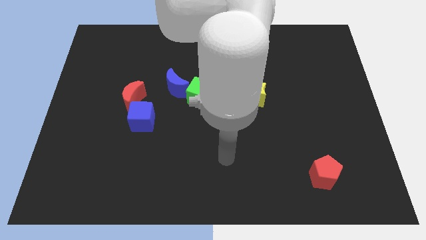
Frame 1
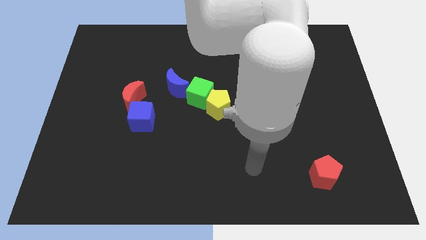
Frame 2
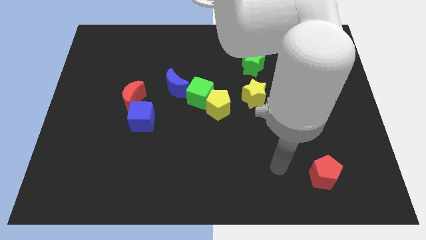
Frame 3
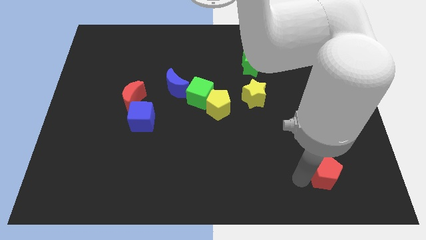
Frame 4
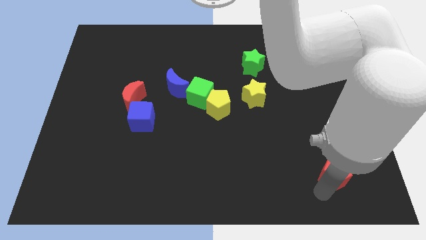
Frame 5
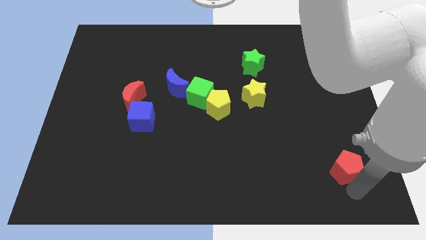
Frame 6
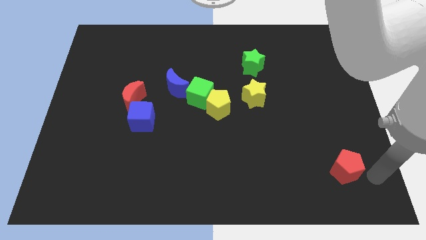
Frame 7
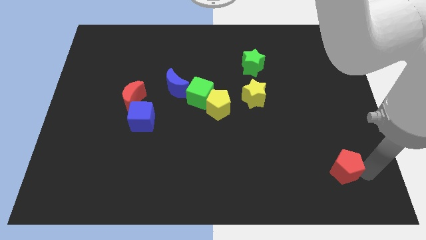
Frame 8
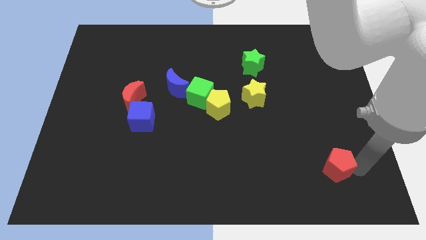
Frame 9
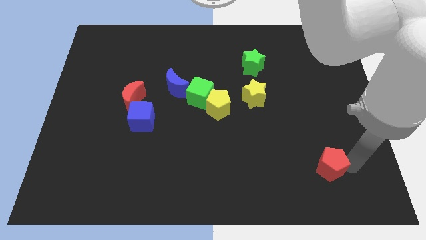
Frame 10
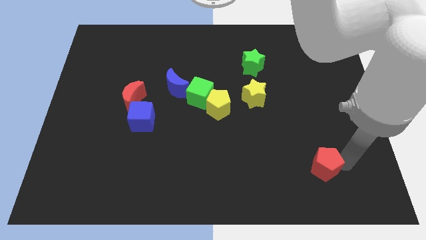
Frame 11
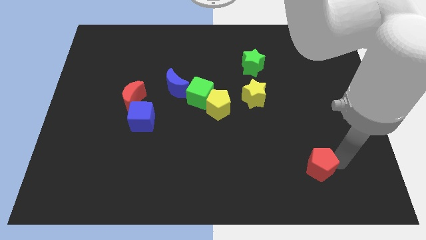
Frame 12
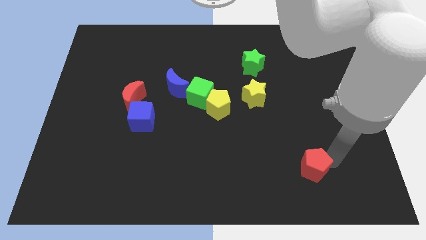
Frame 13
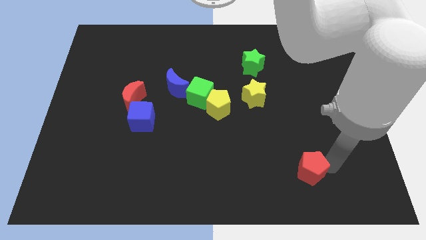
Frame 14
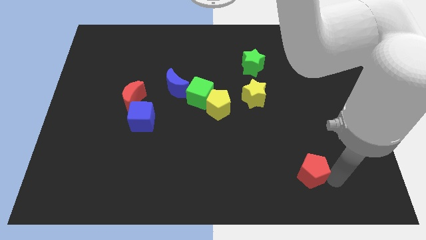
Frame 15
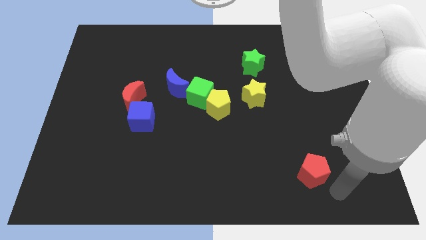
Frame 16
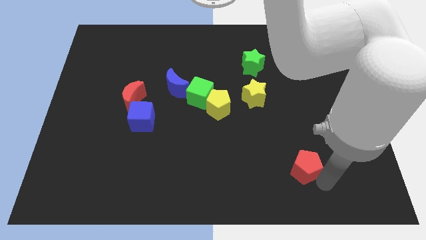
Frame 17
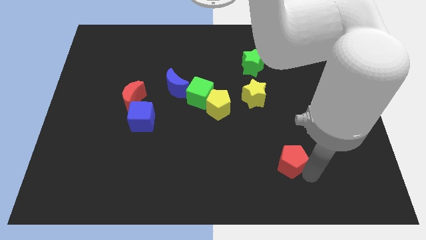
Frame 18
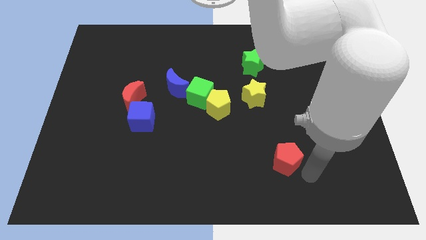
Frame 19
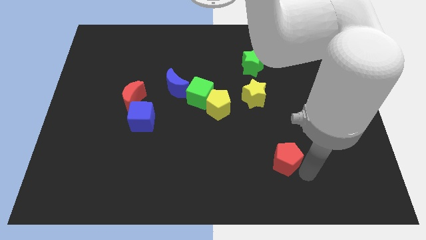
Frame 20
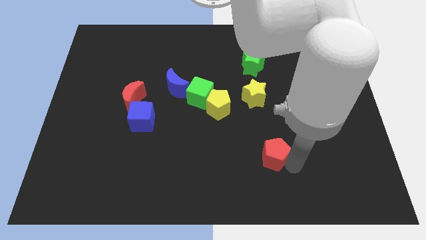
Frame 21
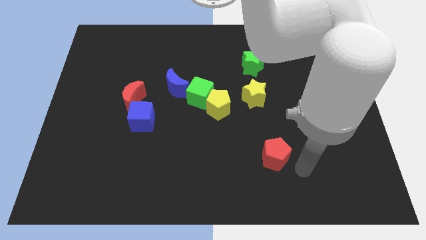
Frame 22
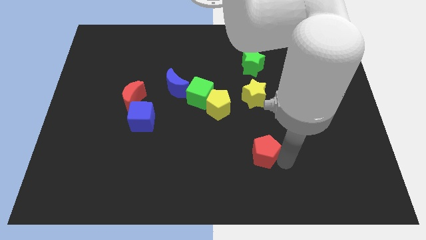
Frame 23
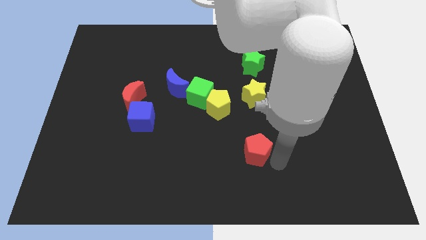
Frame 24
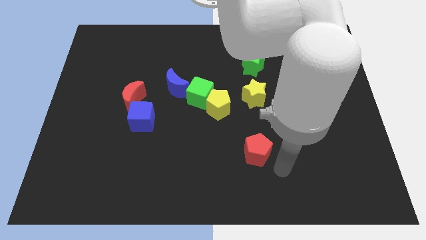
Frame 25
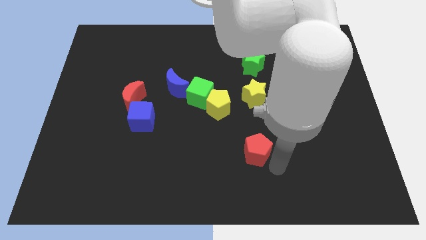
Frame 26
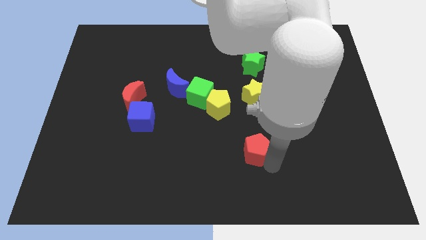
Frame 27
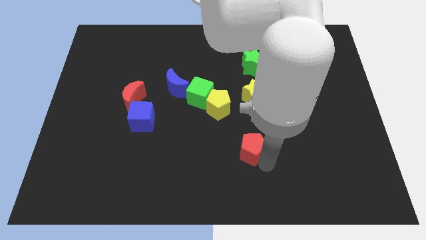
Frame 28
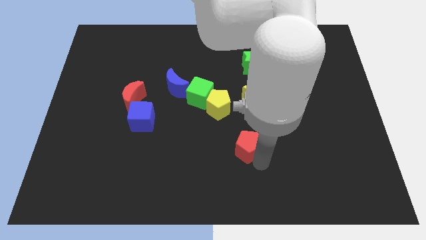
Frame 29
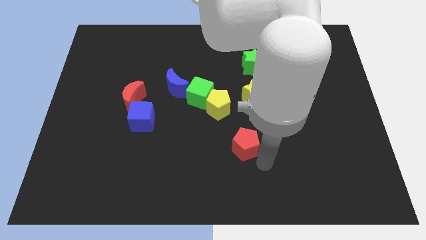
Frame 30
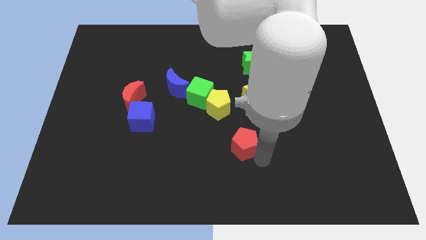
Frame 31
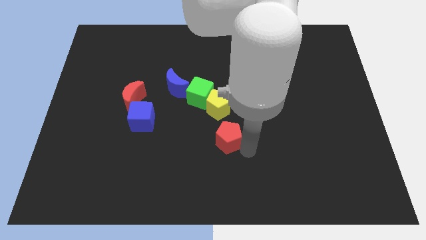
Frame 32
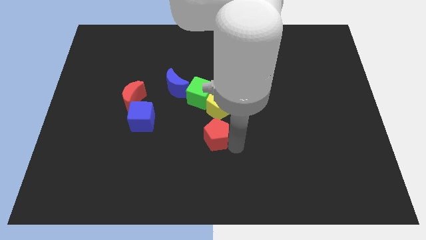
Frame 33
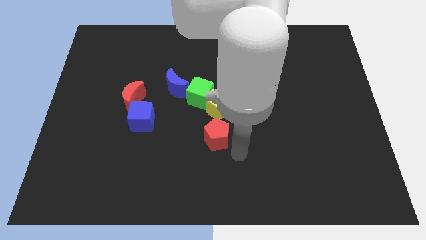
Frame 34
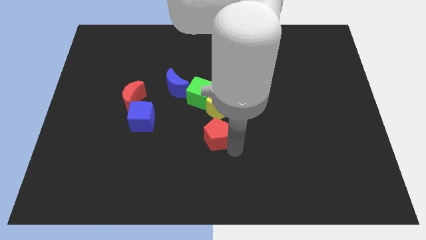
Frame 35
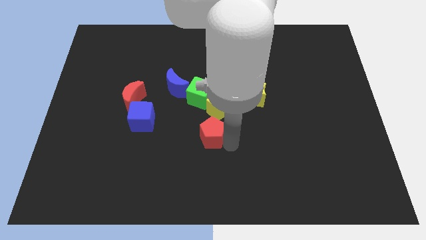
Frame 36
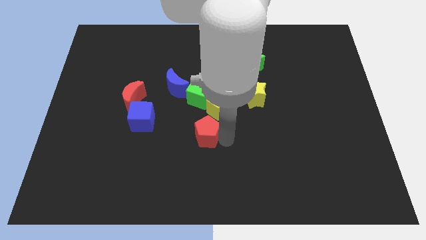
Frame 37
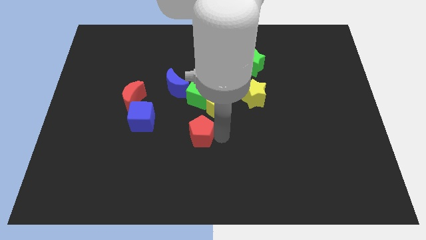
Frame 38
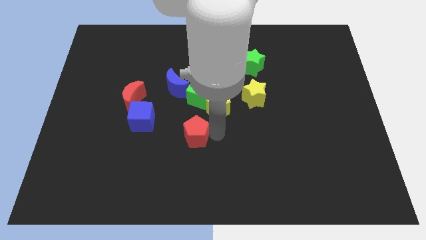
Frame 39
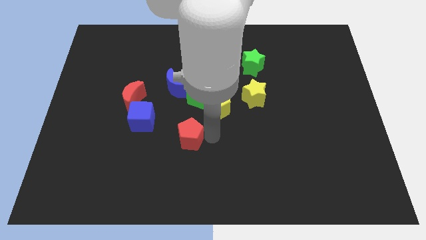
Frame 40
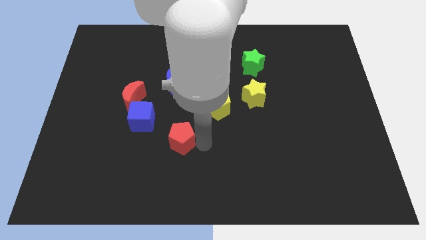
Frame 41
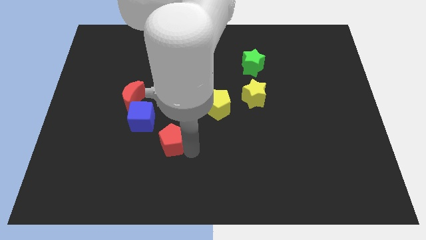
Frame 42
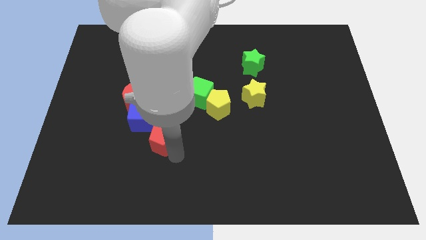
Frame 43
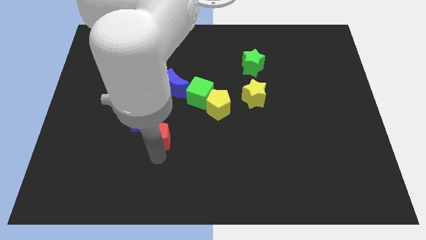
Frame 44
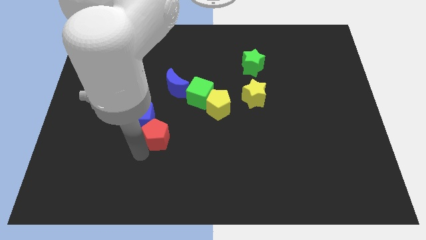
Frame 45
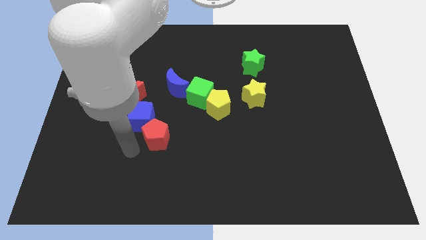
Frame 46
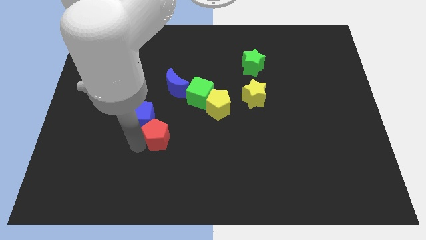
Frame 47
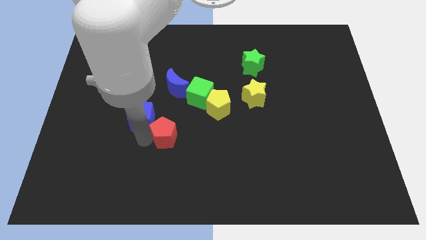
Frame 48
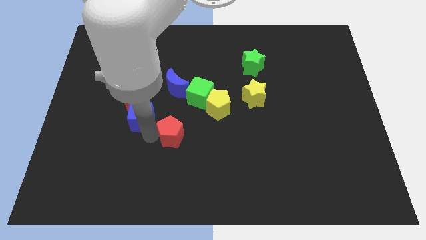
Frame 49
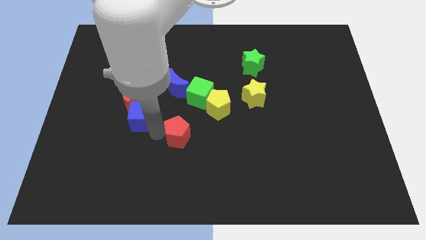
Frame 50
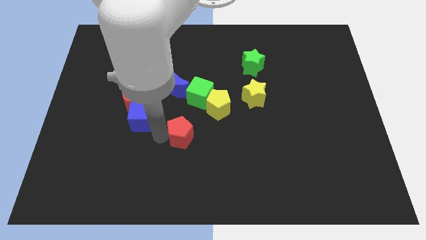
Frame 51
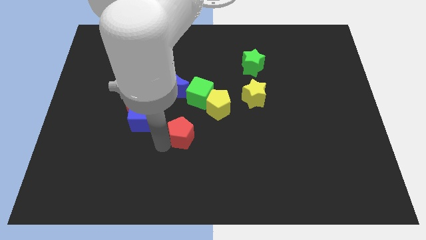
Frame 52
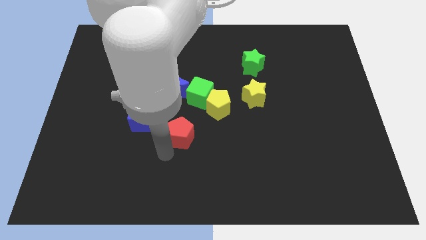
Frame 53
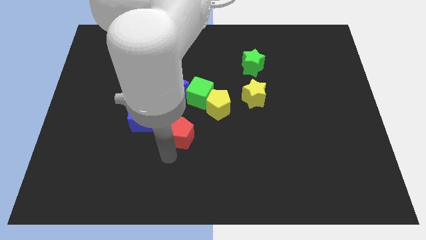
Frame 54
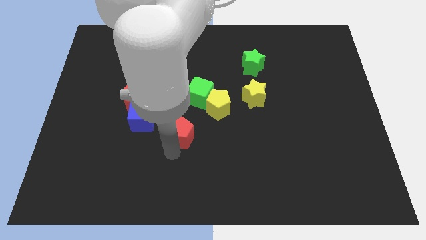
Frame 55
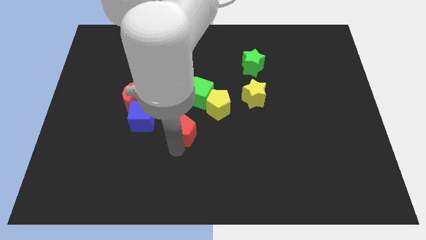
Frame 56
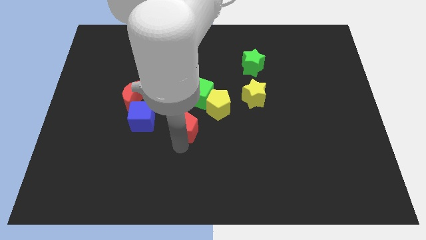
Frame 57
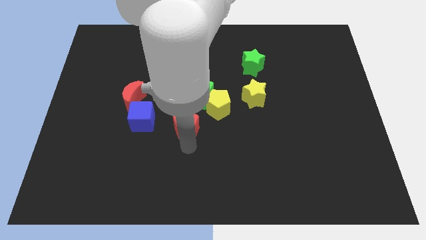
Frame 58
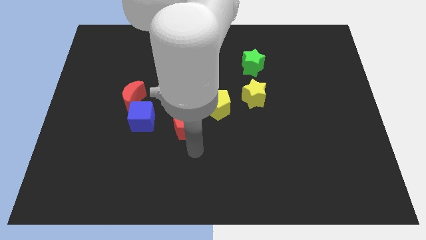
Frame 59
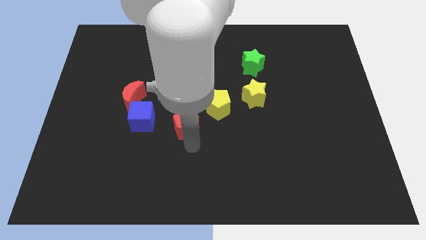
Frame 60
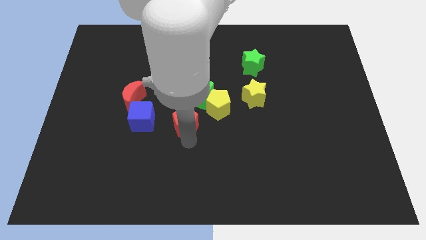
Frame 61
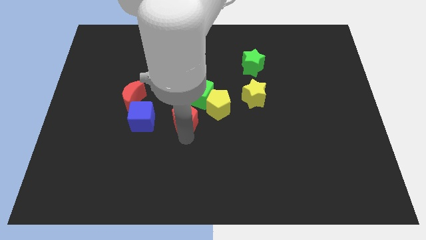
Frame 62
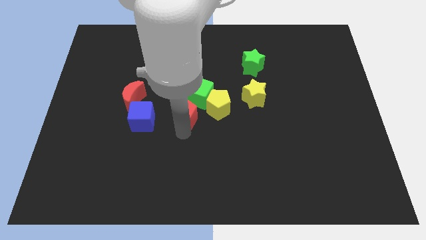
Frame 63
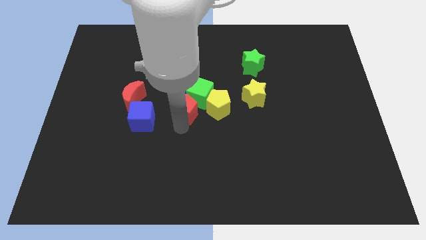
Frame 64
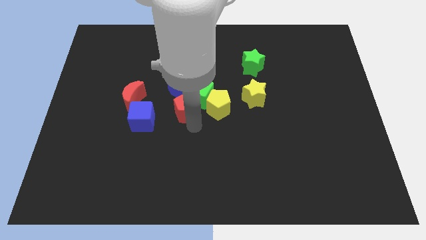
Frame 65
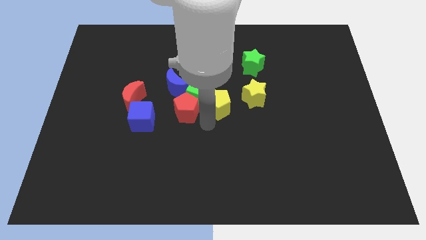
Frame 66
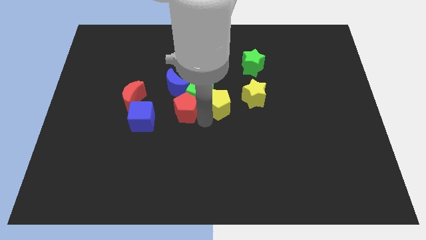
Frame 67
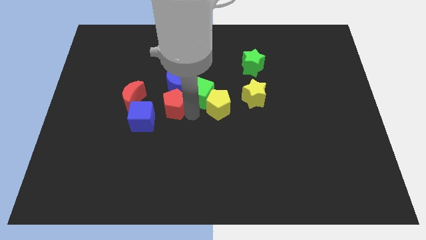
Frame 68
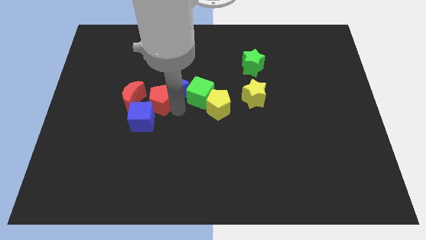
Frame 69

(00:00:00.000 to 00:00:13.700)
put the red pentagon left of the blue moon
